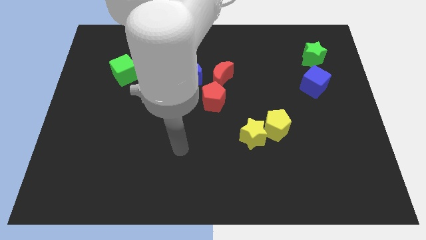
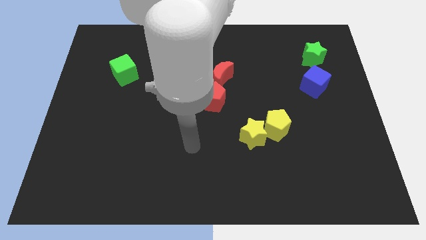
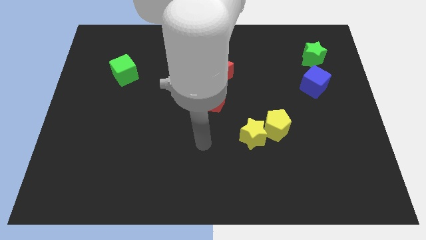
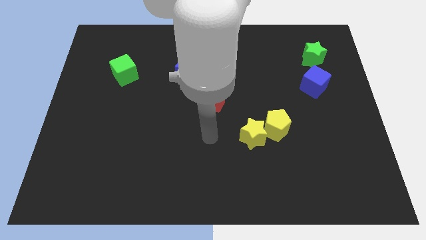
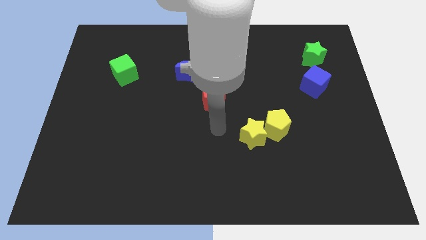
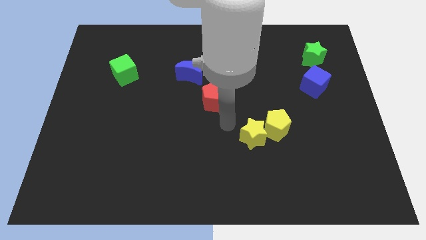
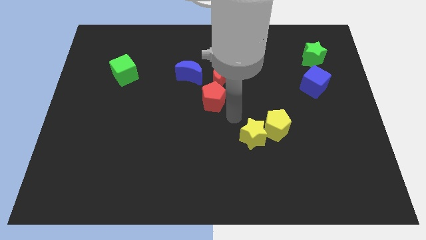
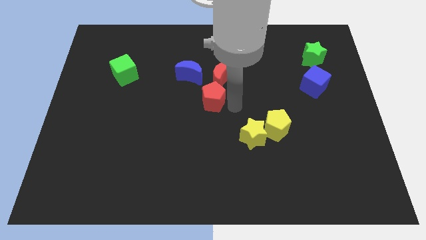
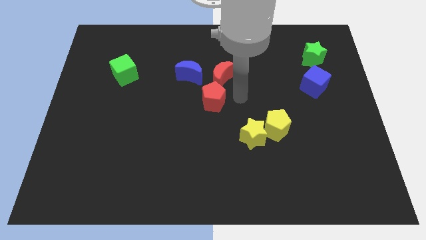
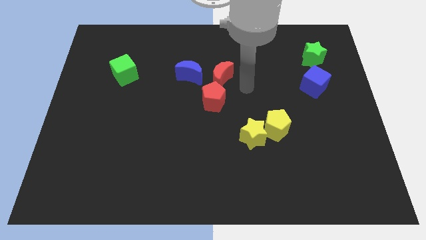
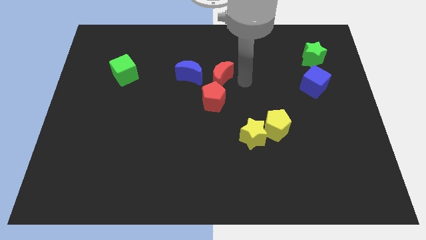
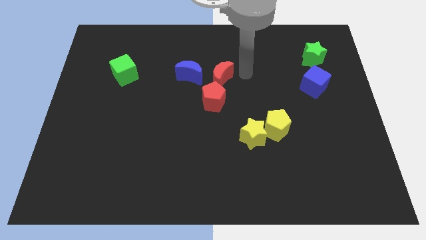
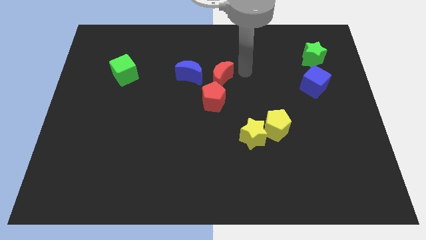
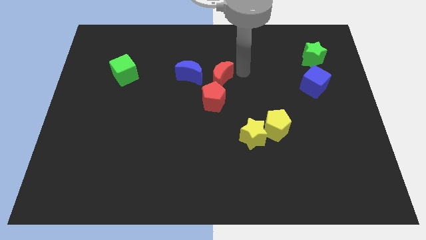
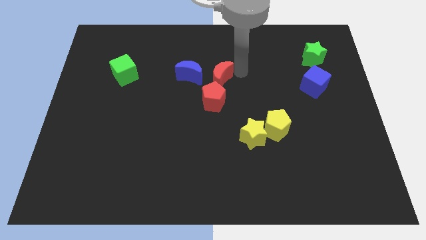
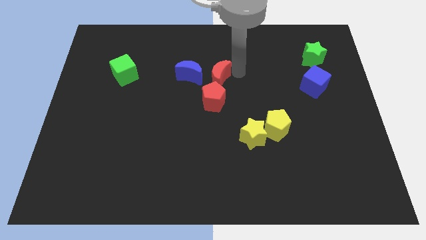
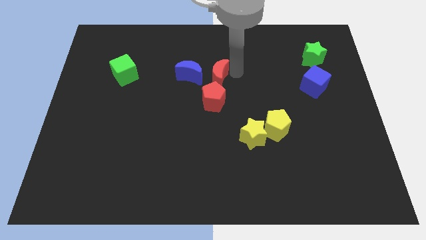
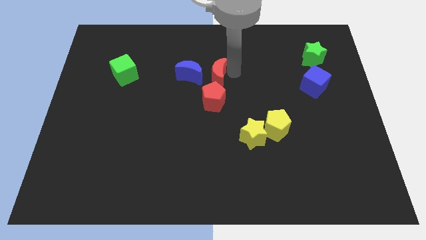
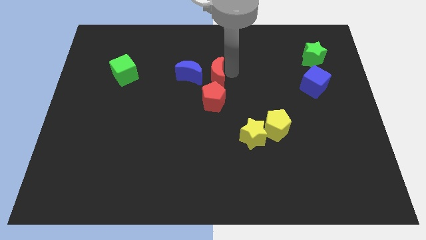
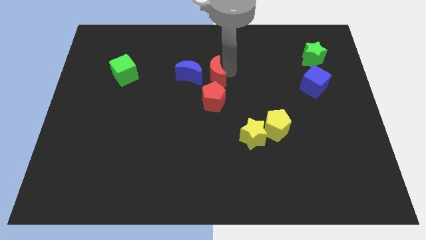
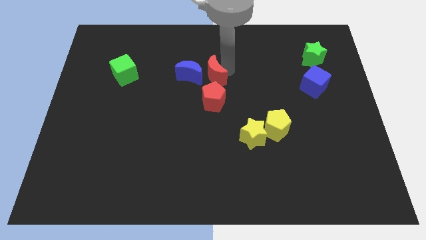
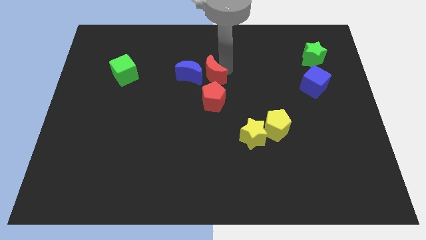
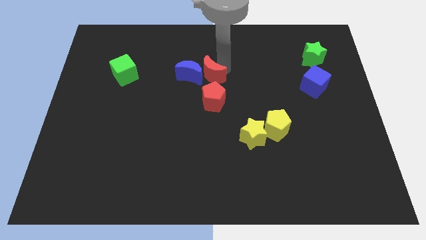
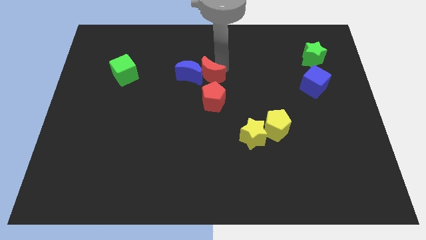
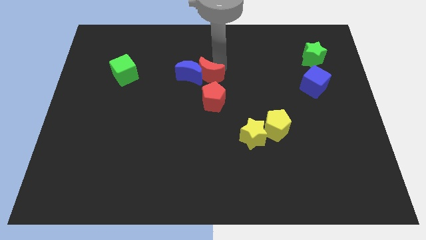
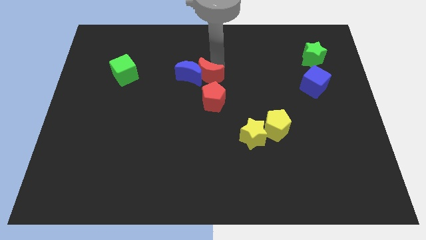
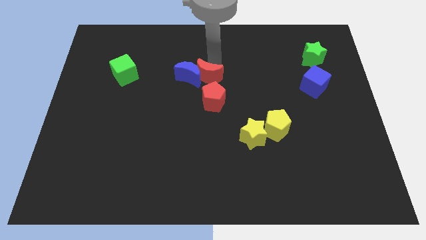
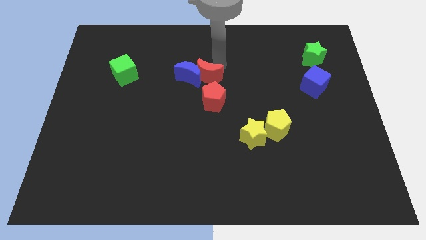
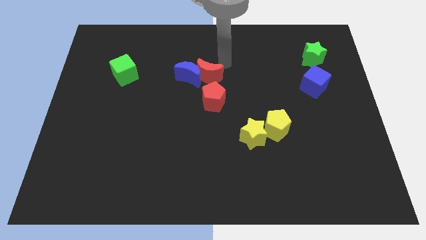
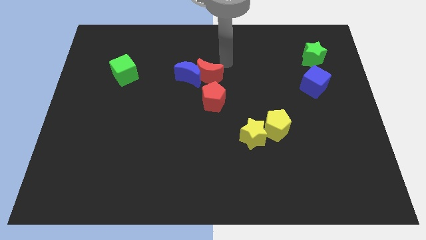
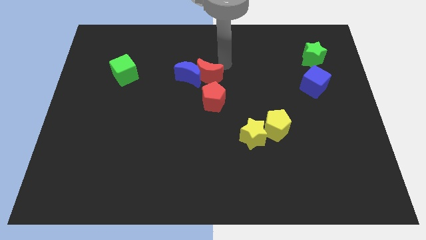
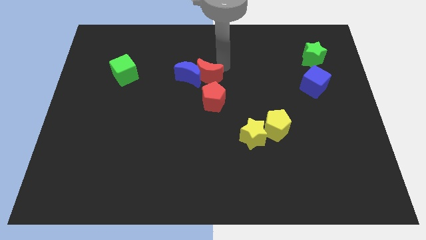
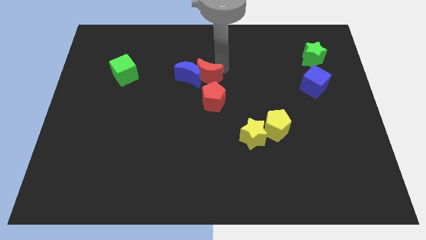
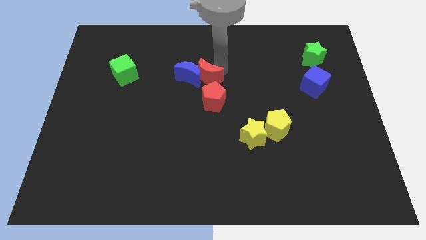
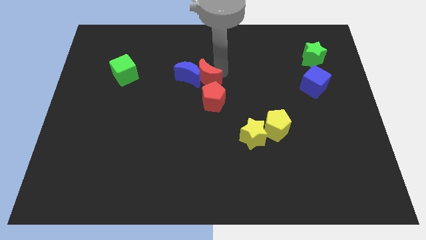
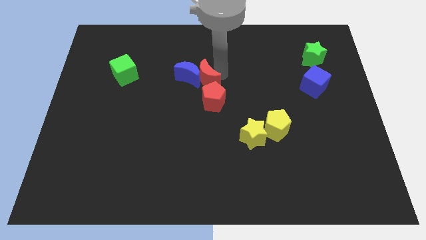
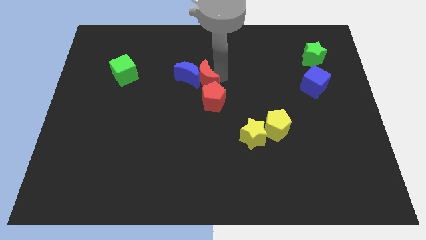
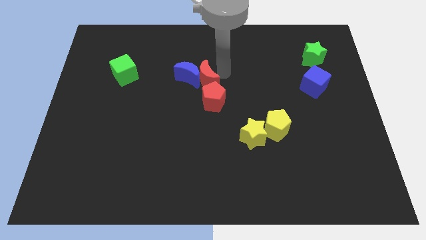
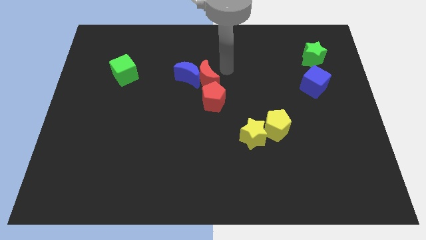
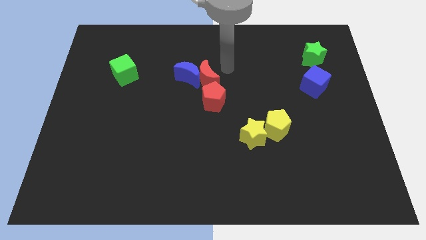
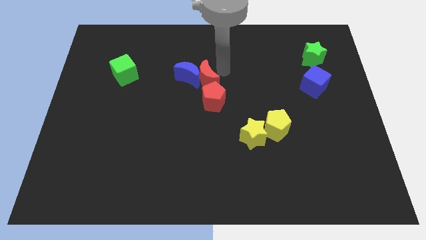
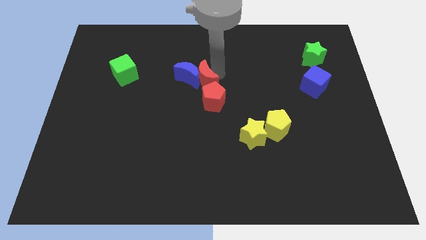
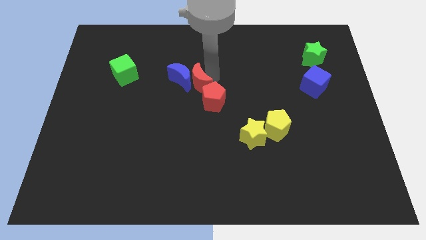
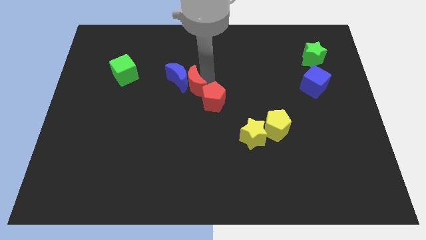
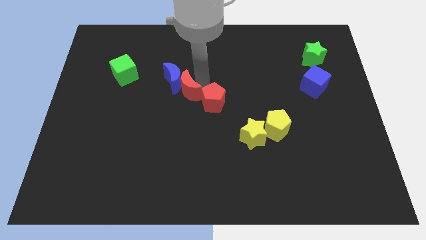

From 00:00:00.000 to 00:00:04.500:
slide the red moon somewhat to the left

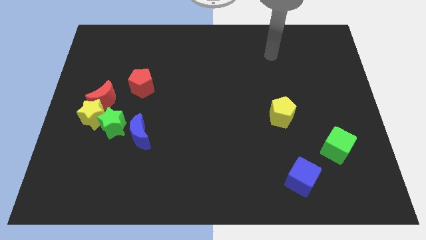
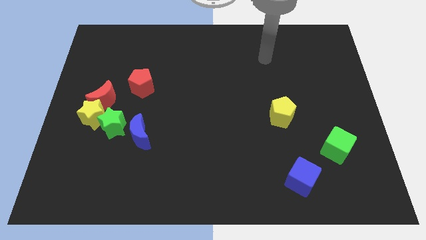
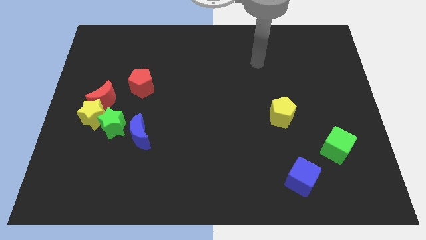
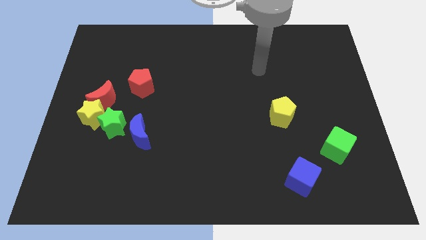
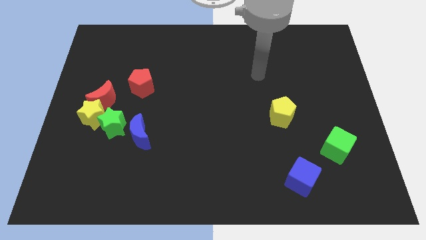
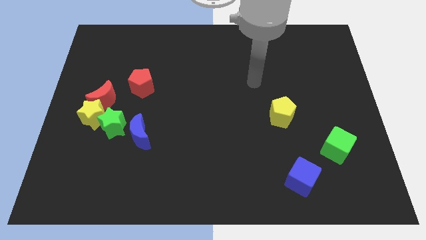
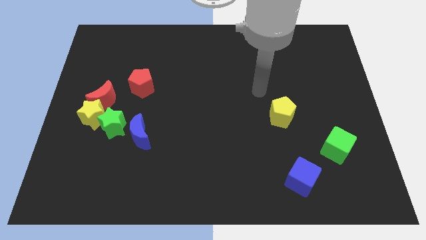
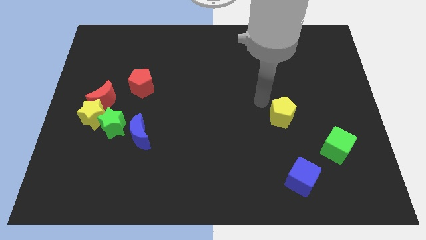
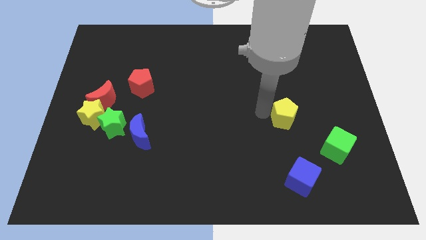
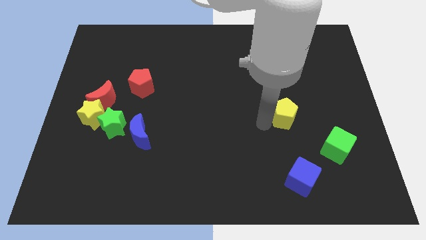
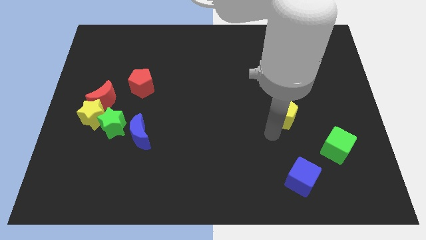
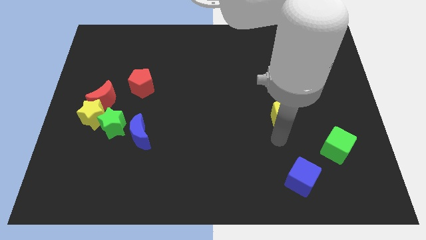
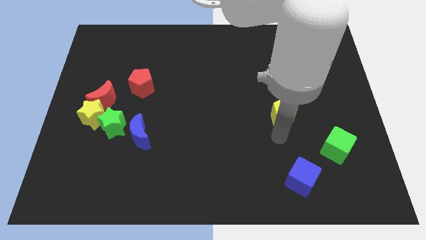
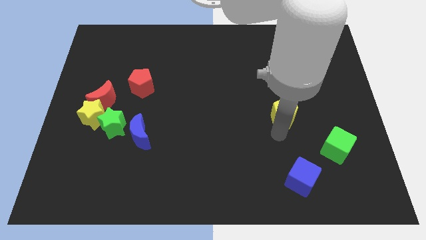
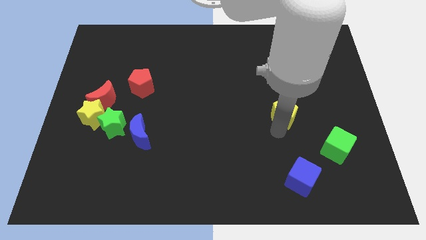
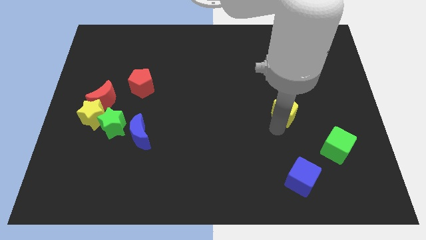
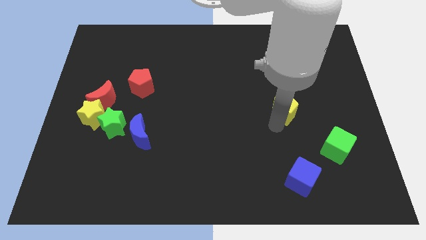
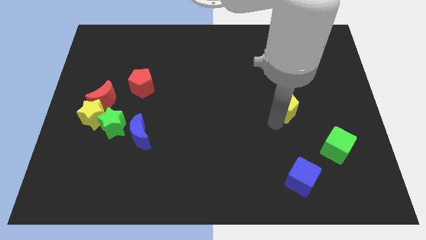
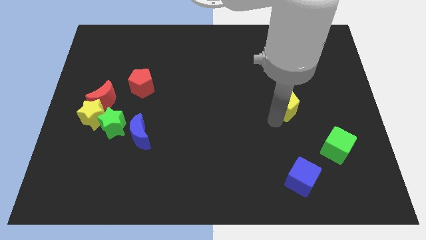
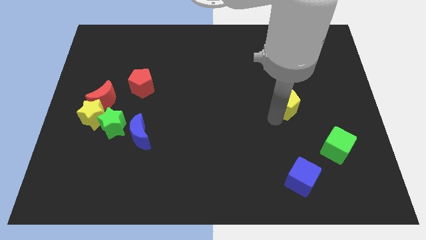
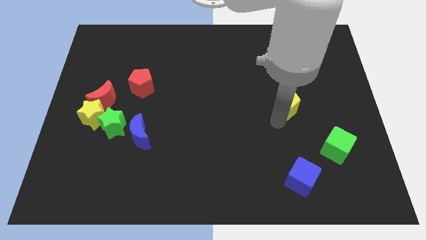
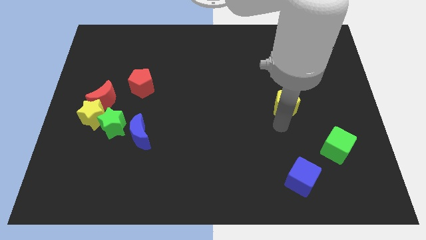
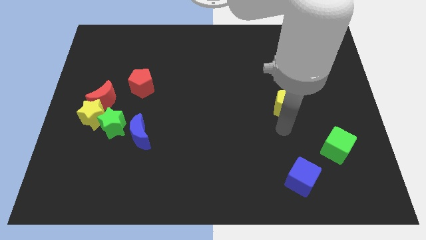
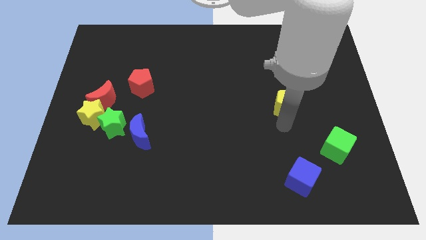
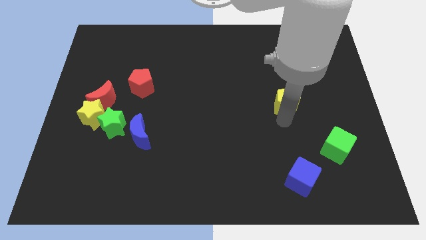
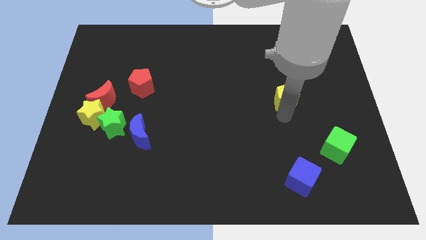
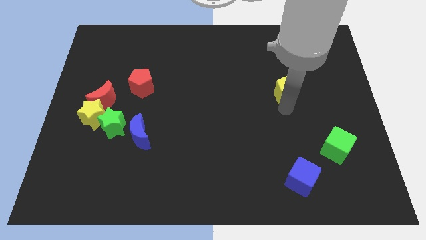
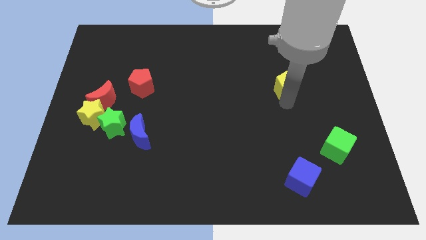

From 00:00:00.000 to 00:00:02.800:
push the yellow pentagon a little up

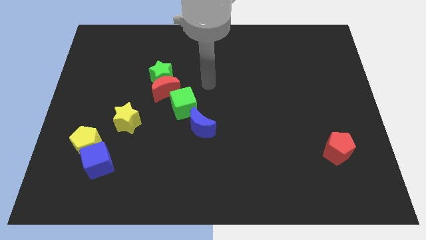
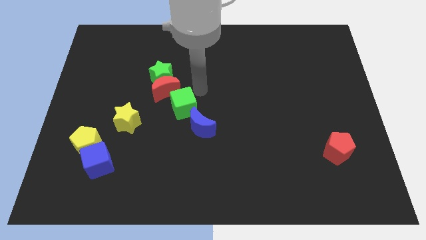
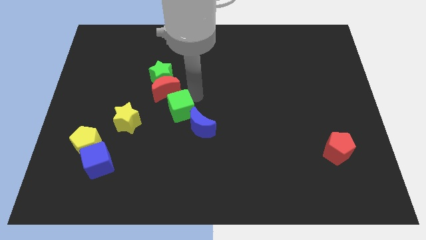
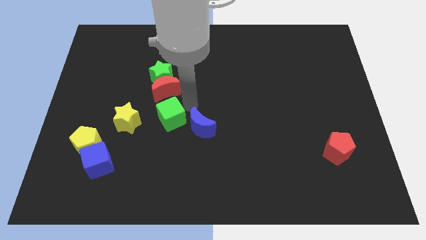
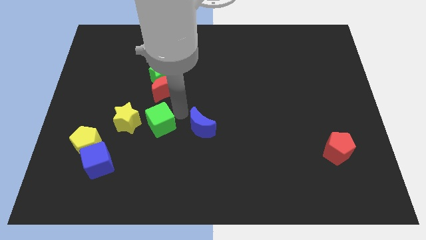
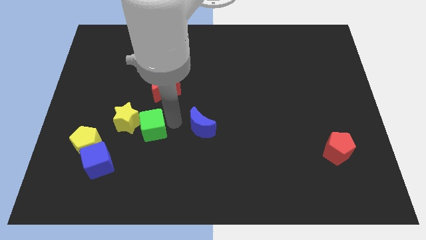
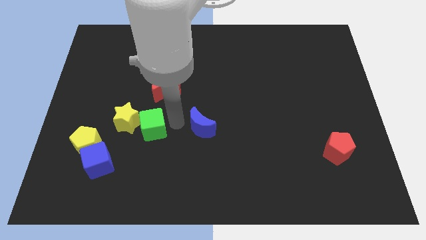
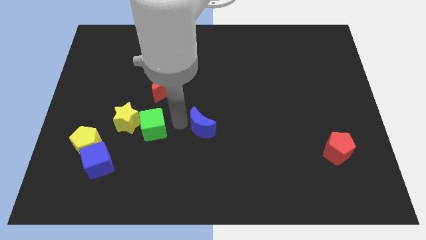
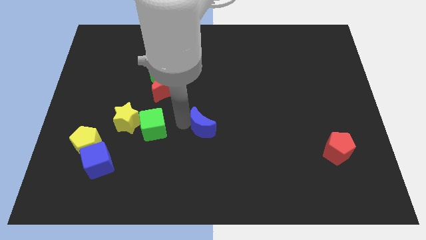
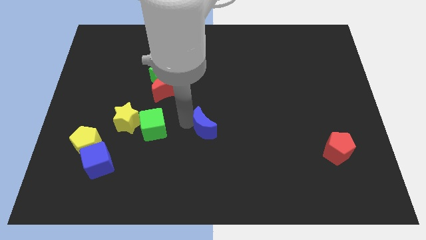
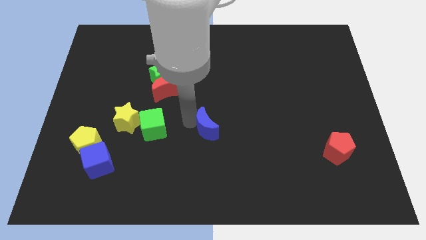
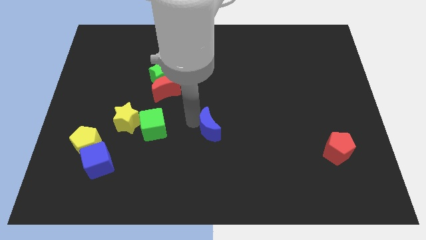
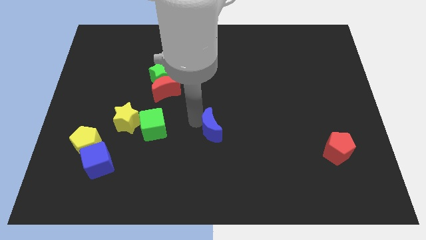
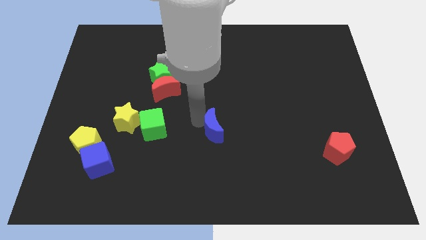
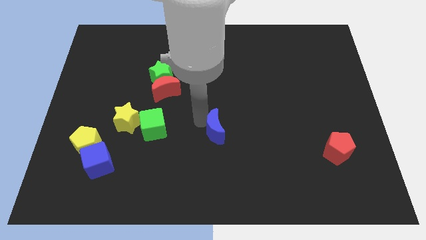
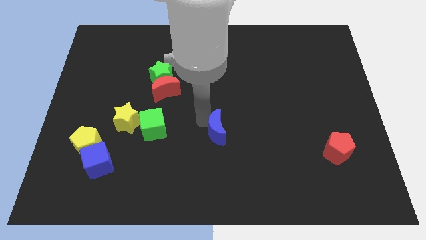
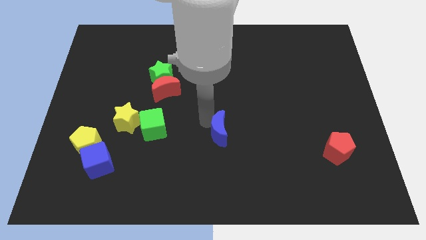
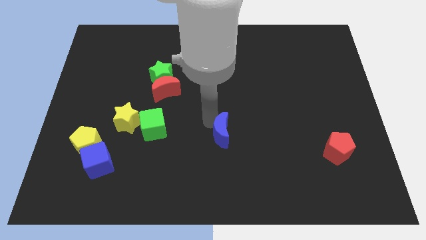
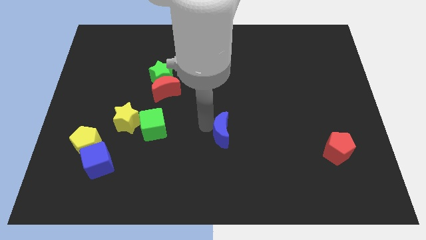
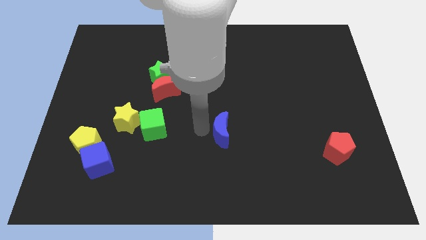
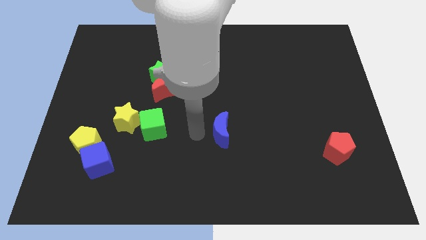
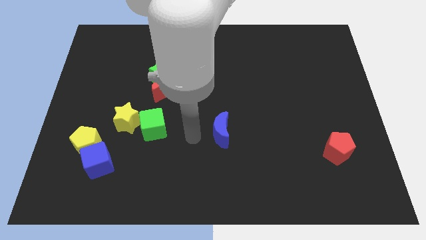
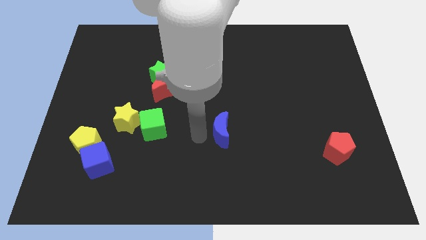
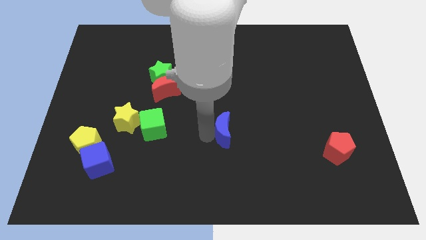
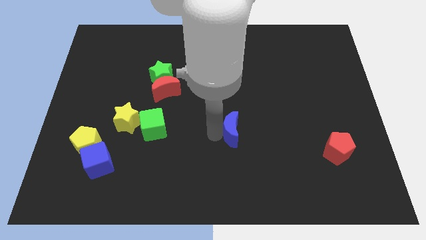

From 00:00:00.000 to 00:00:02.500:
slightly push the blue moon to the right
